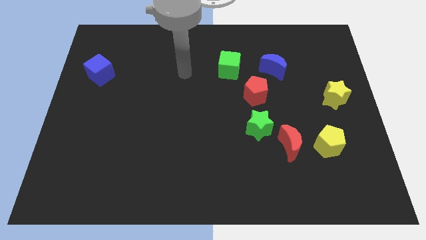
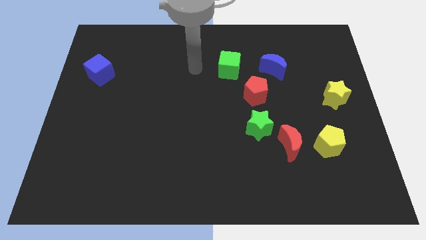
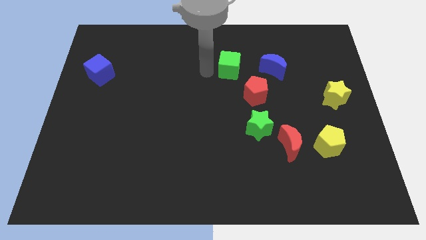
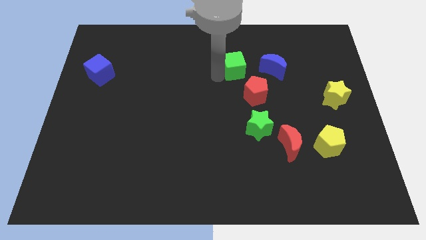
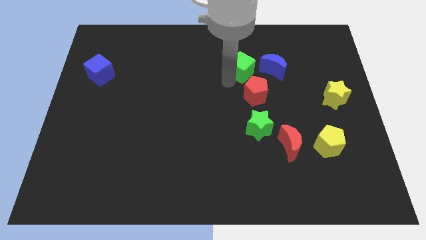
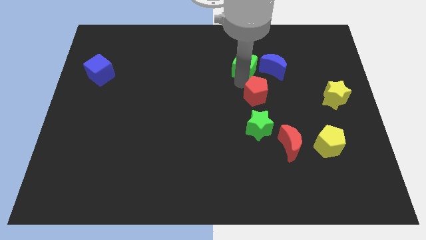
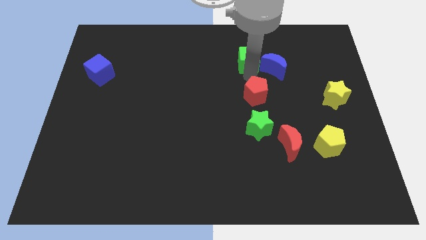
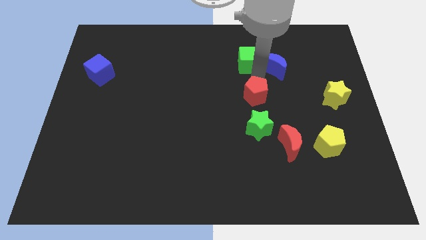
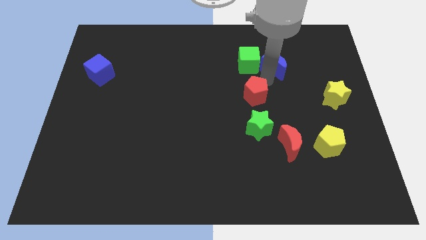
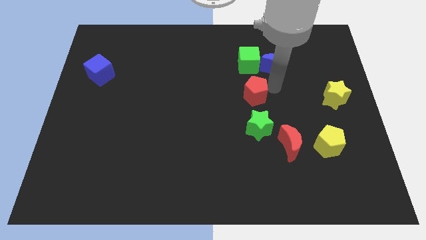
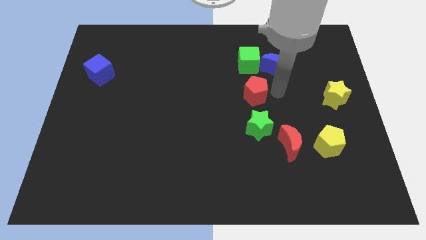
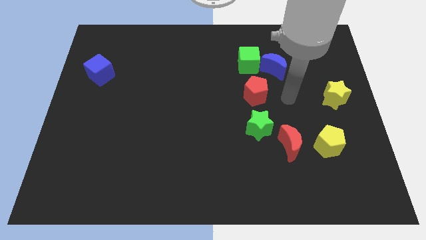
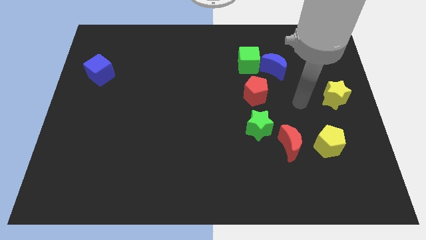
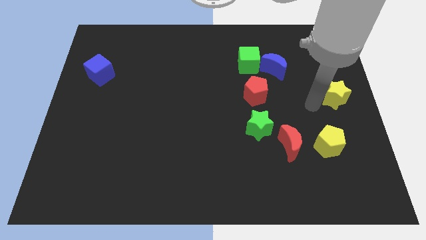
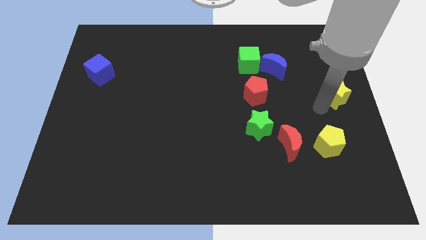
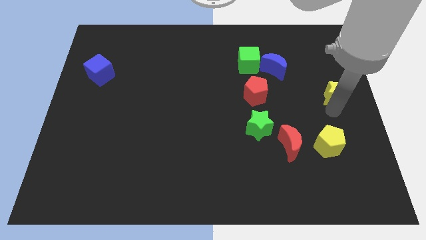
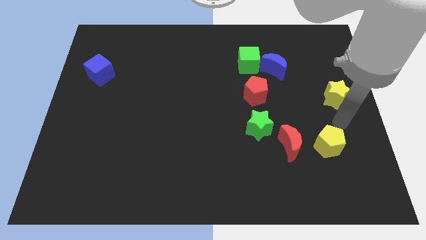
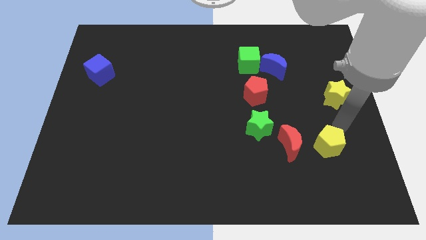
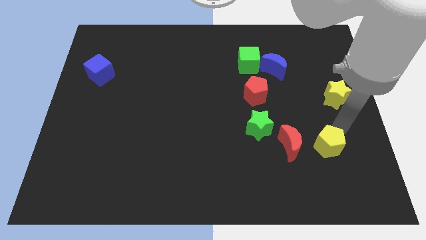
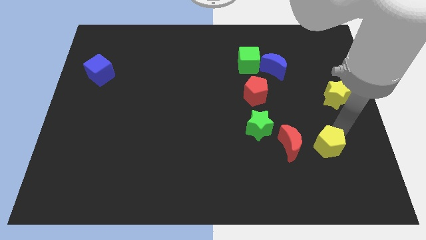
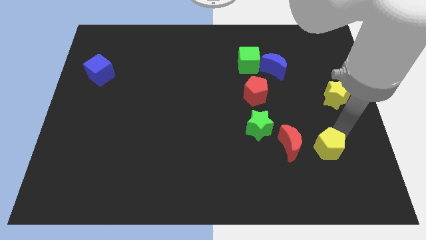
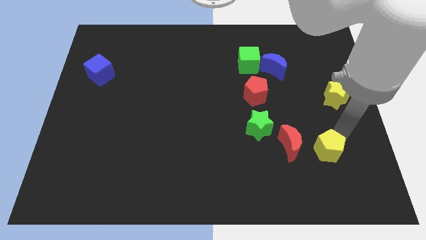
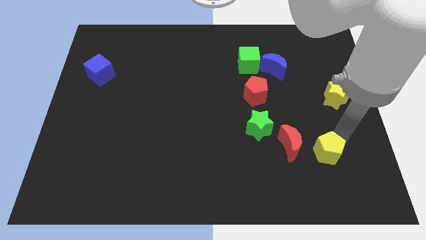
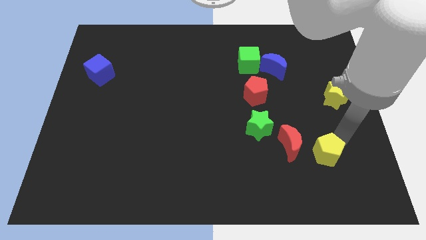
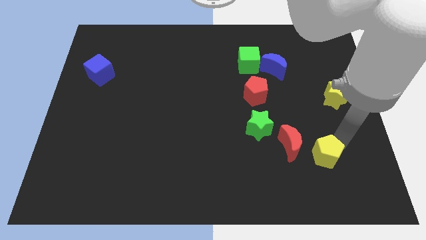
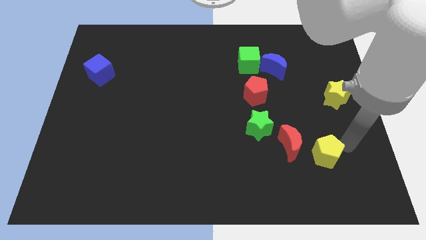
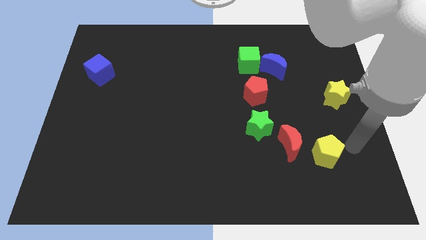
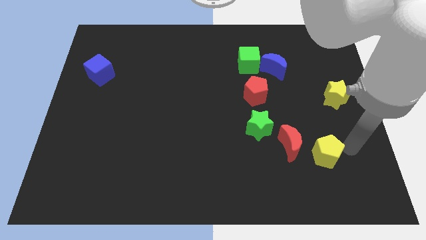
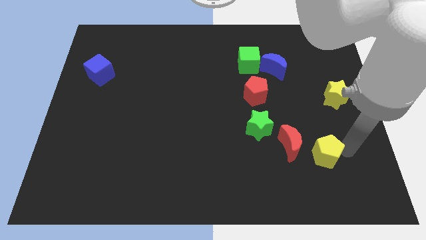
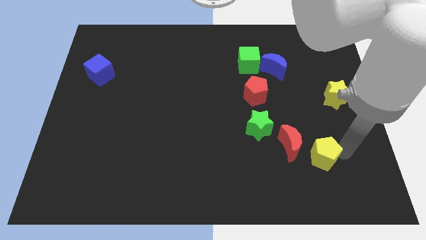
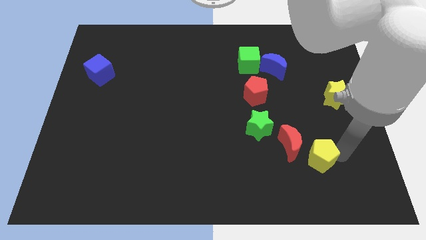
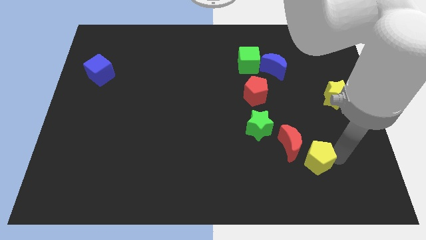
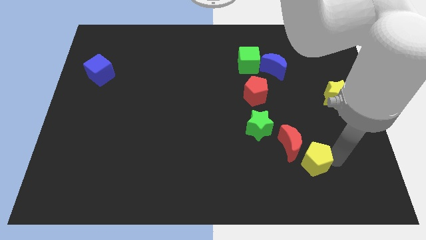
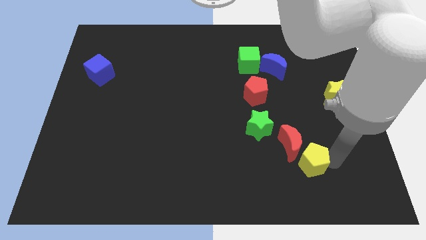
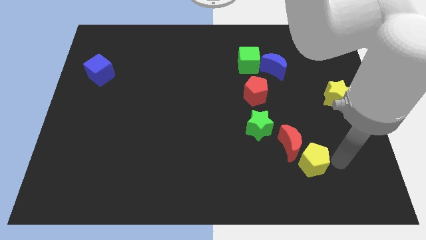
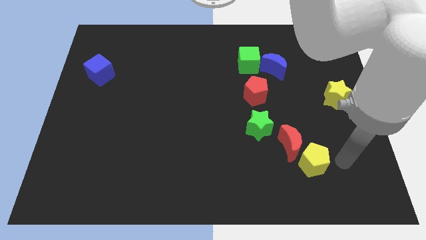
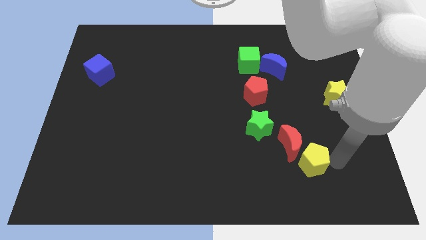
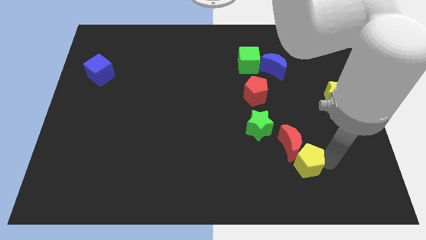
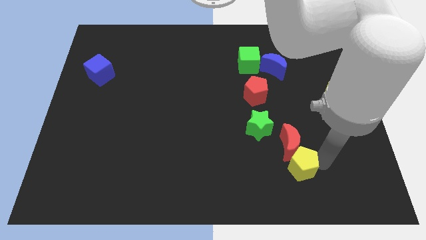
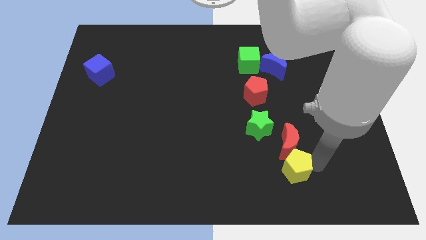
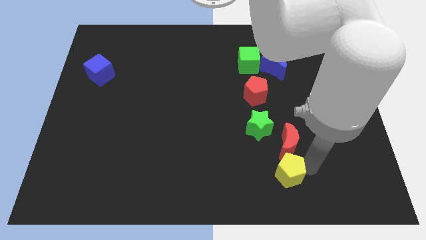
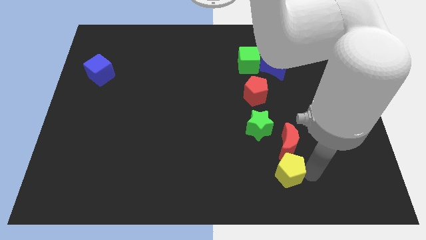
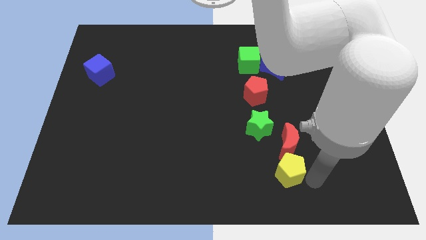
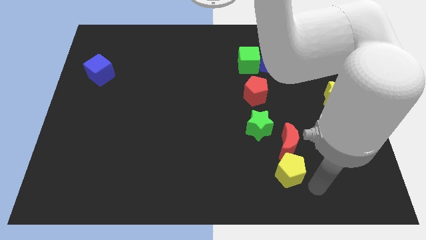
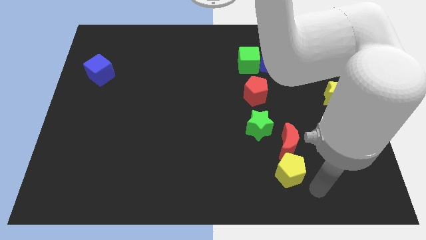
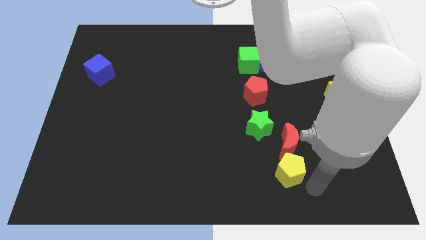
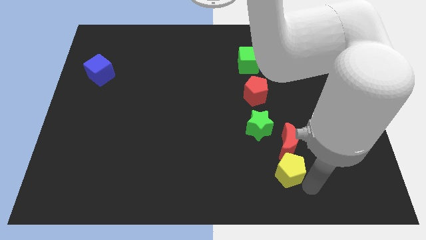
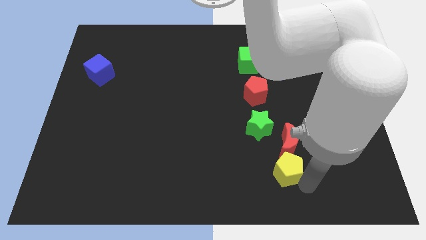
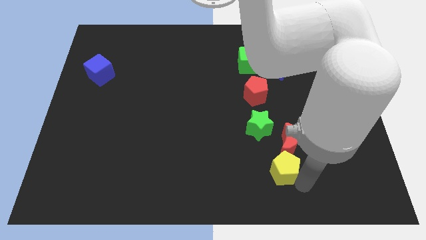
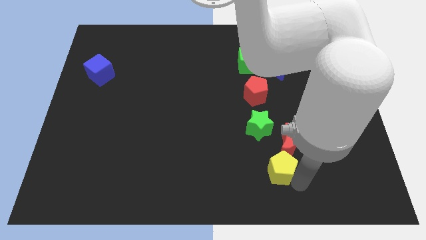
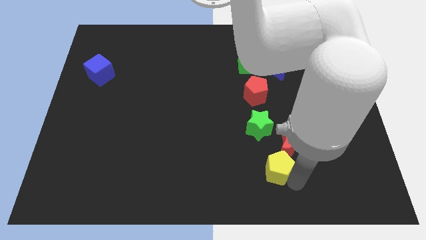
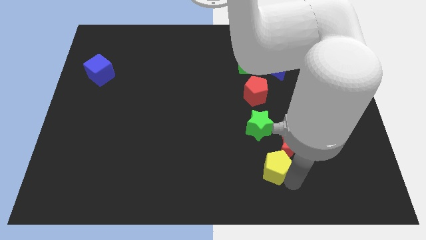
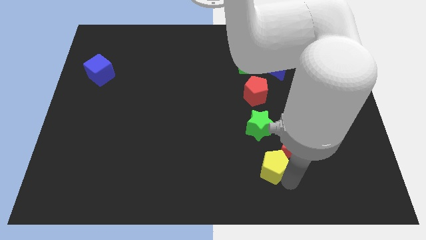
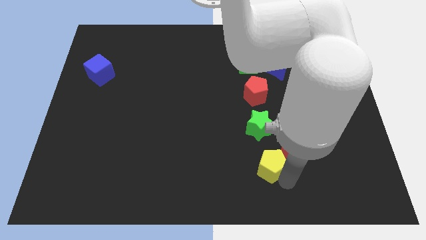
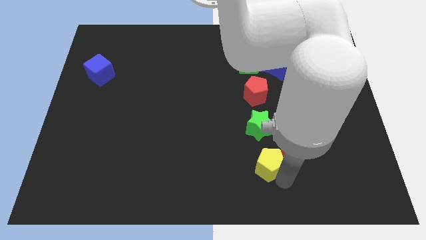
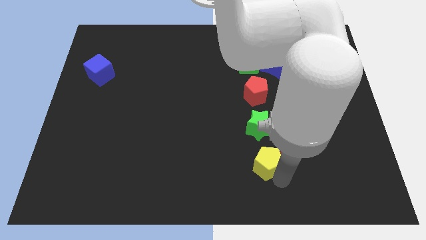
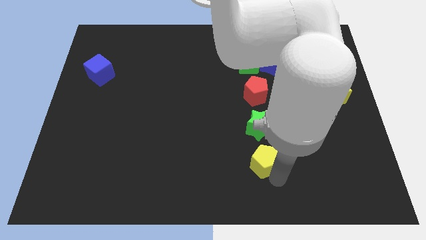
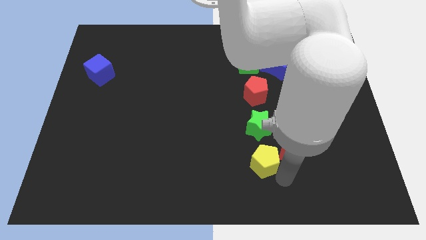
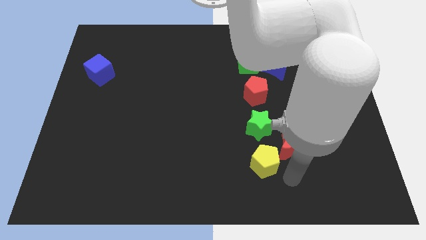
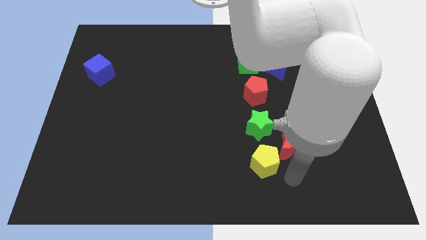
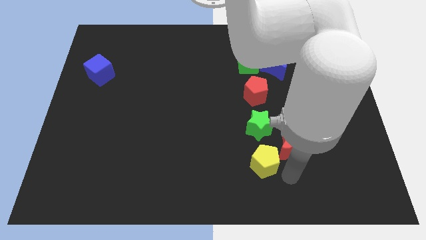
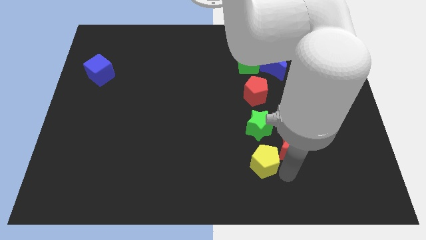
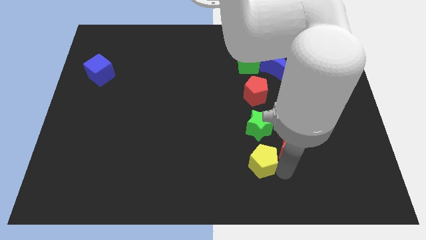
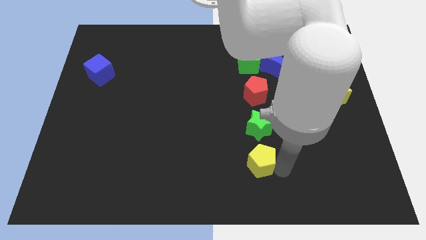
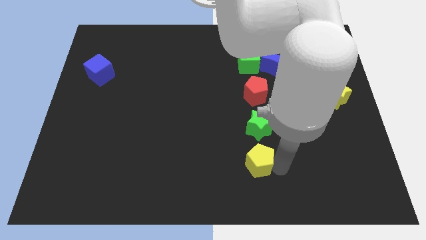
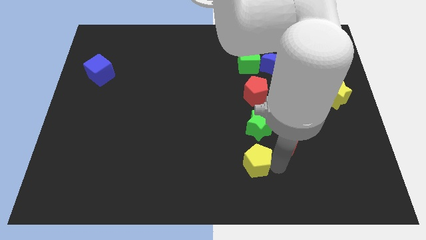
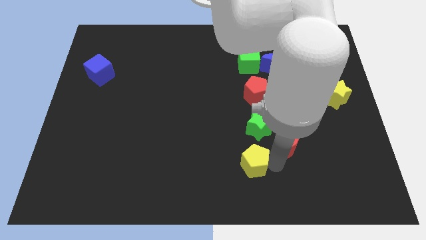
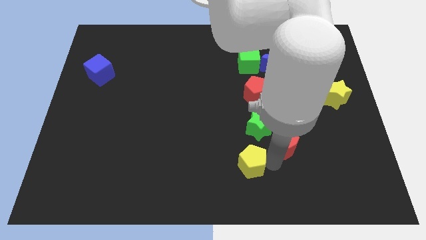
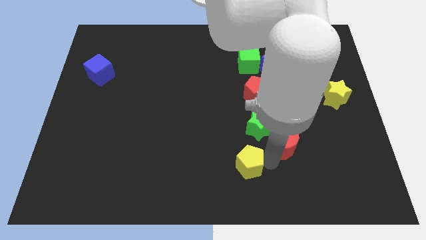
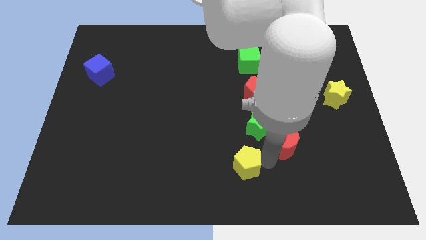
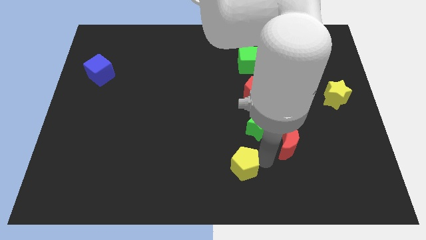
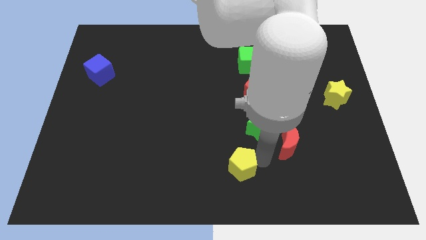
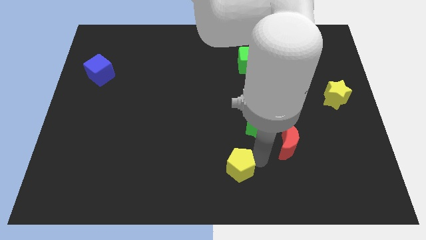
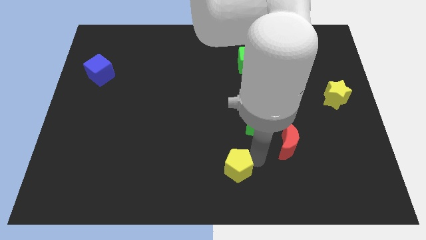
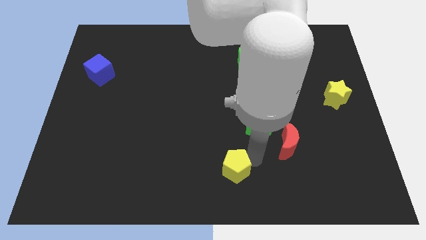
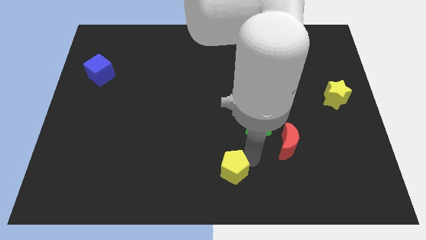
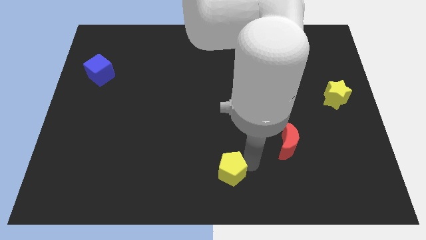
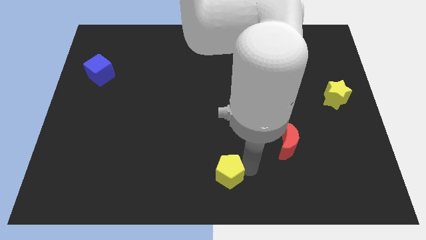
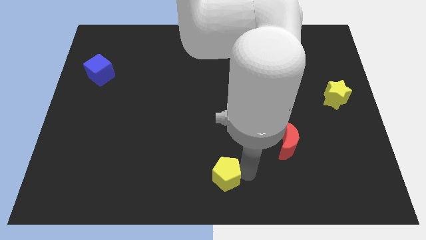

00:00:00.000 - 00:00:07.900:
move the yellow pentagon to the left
